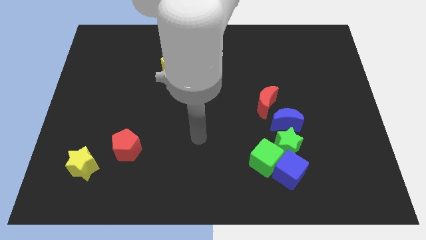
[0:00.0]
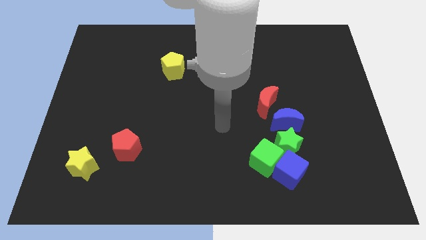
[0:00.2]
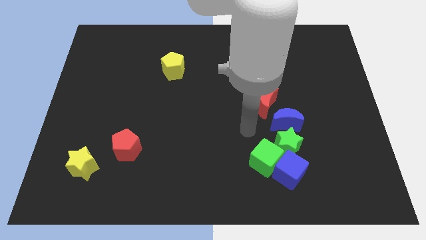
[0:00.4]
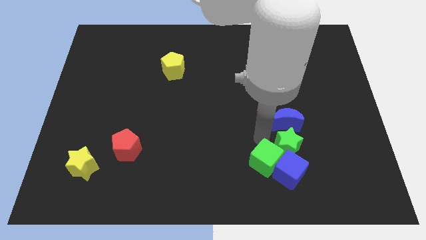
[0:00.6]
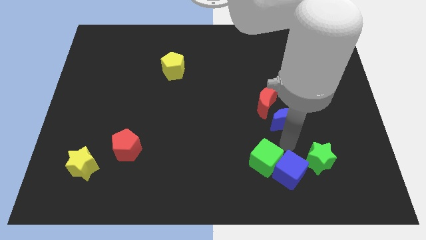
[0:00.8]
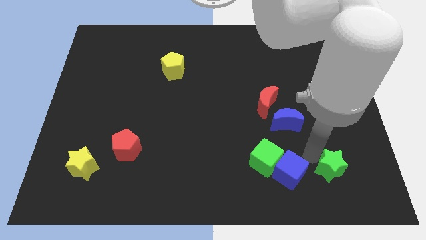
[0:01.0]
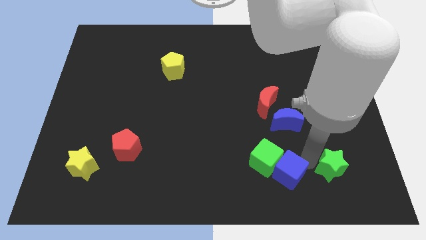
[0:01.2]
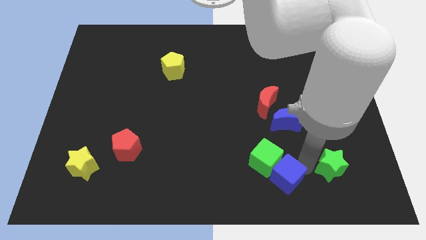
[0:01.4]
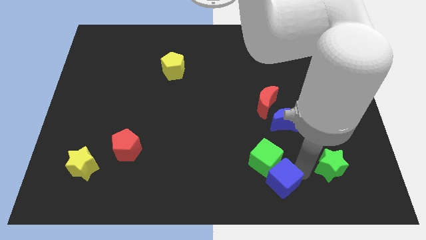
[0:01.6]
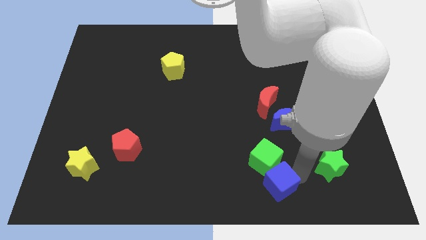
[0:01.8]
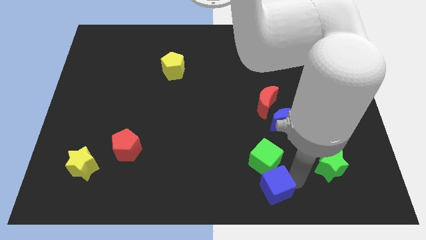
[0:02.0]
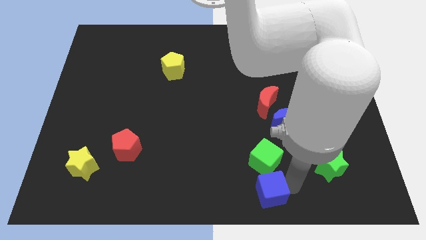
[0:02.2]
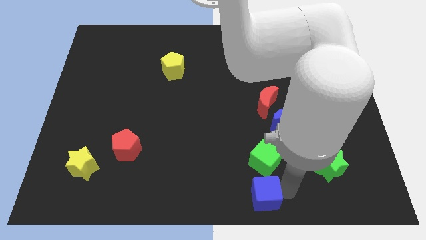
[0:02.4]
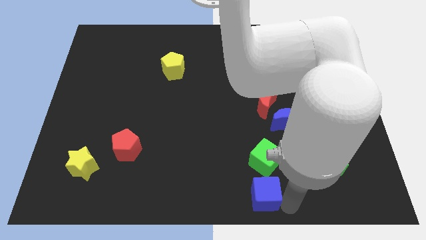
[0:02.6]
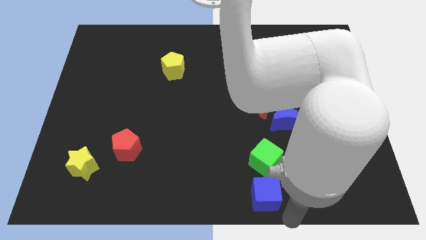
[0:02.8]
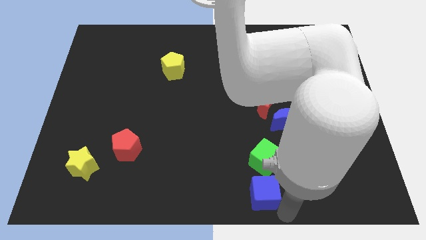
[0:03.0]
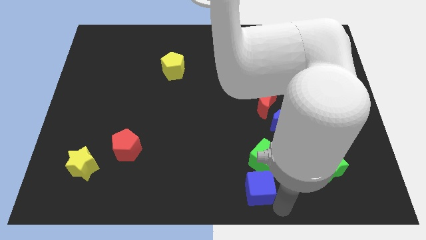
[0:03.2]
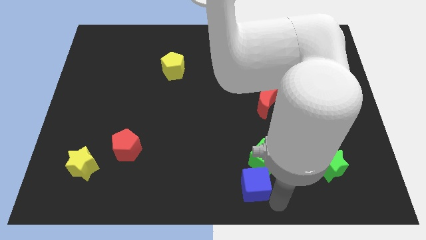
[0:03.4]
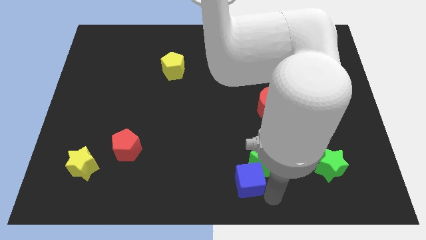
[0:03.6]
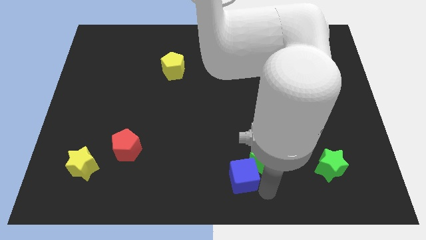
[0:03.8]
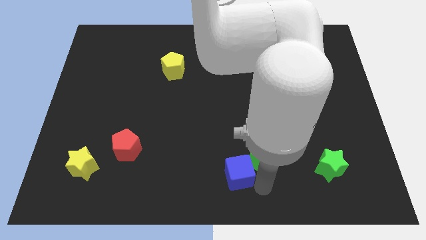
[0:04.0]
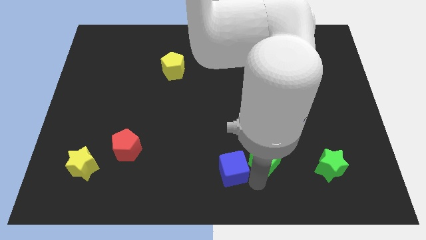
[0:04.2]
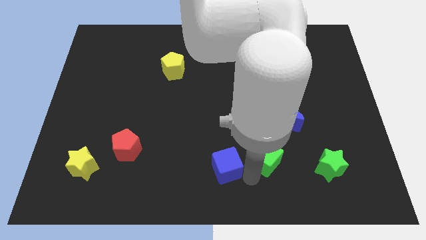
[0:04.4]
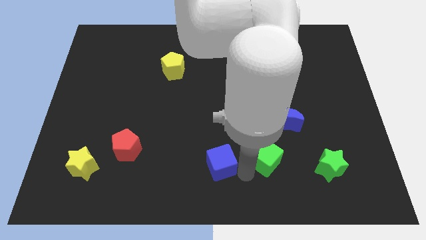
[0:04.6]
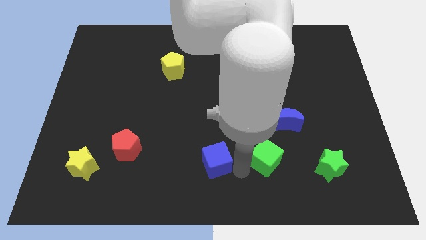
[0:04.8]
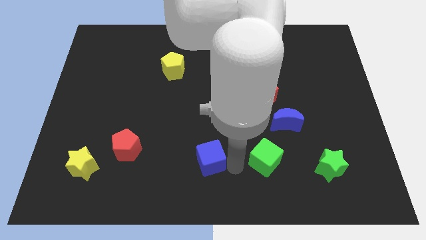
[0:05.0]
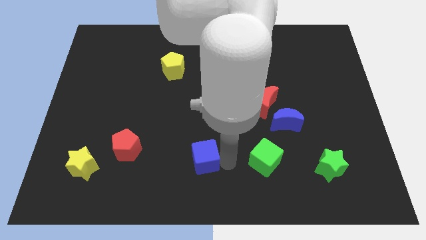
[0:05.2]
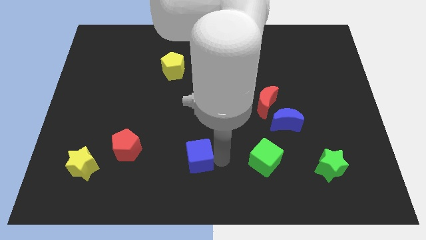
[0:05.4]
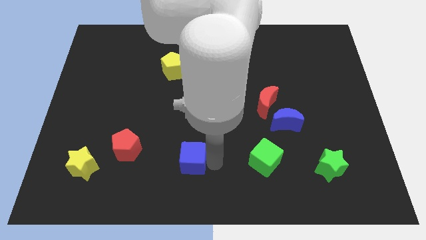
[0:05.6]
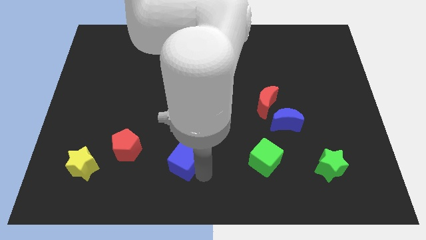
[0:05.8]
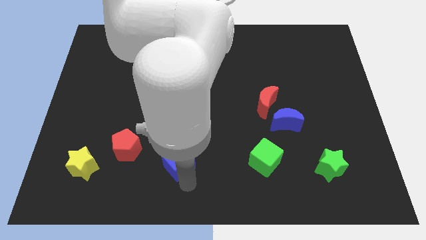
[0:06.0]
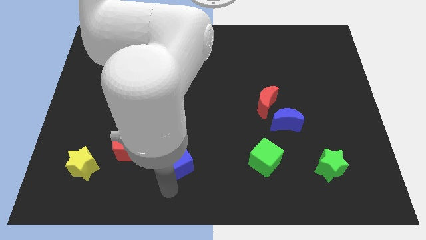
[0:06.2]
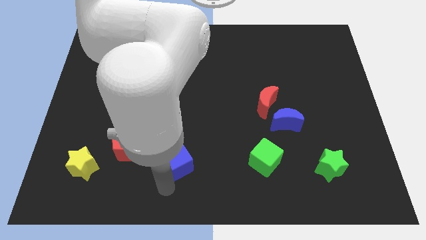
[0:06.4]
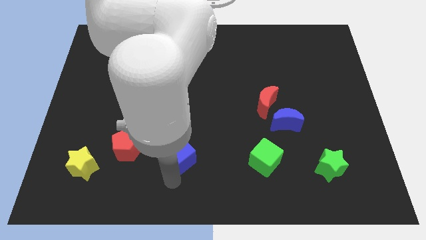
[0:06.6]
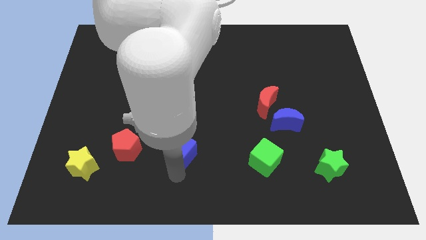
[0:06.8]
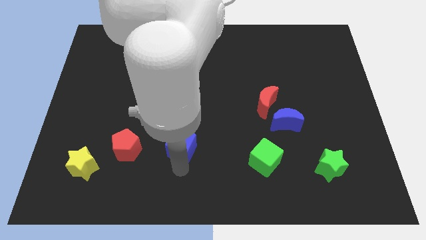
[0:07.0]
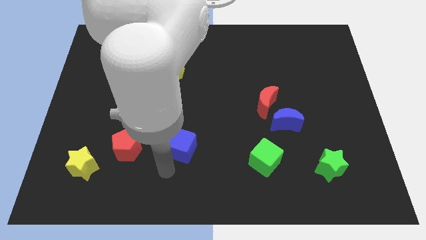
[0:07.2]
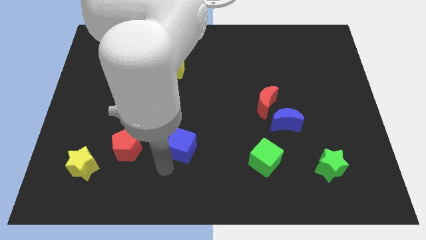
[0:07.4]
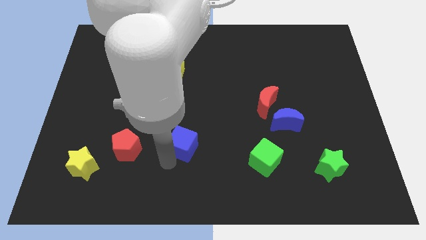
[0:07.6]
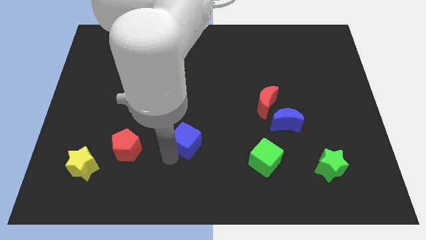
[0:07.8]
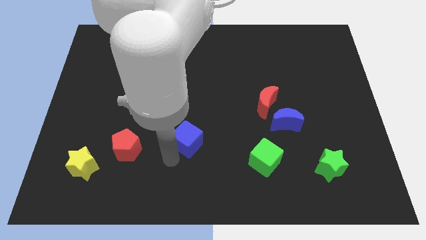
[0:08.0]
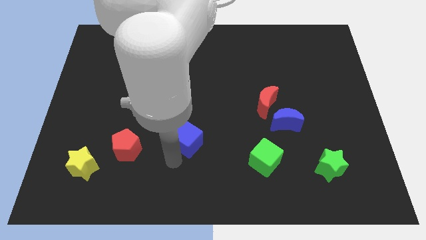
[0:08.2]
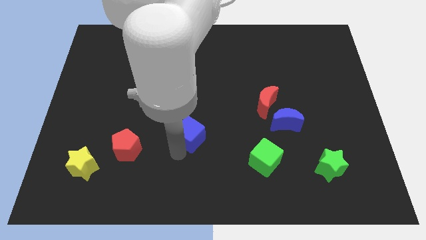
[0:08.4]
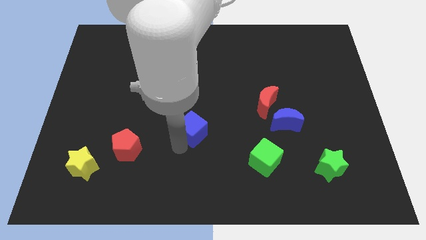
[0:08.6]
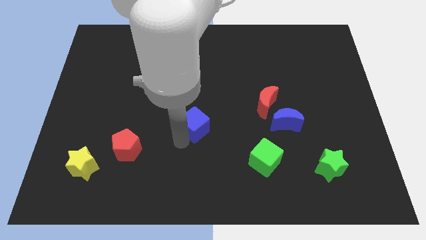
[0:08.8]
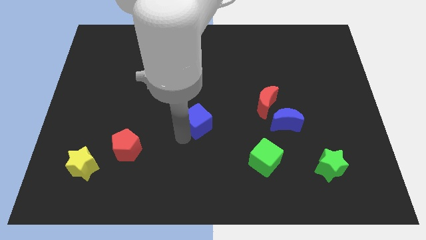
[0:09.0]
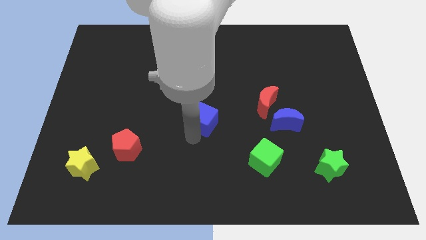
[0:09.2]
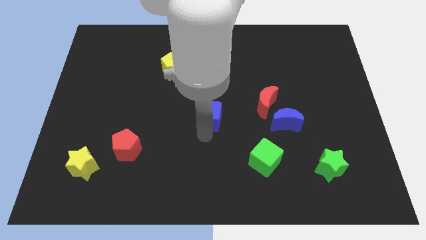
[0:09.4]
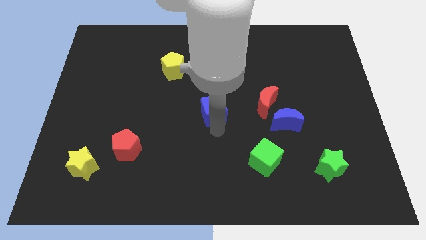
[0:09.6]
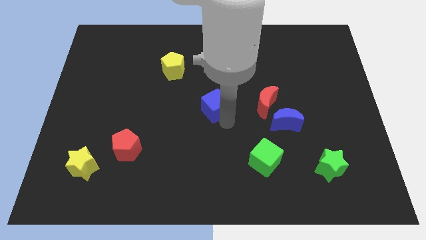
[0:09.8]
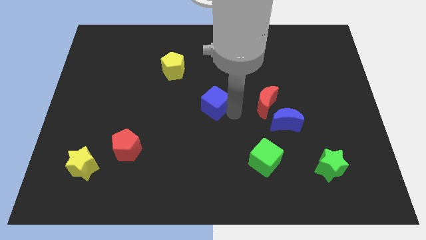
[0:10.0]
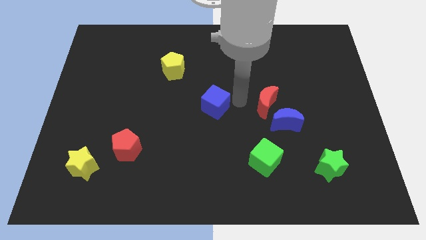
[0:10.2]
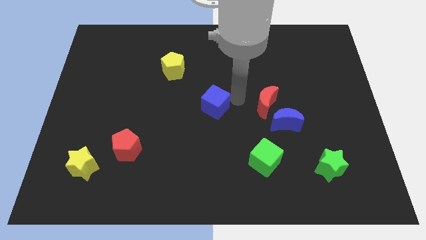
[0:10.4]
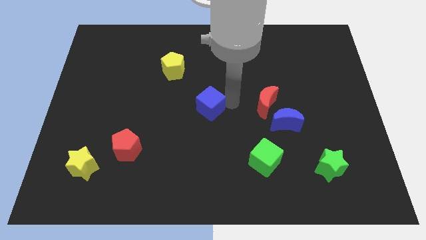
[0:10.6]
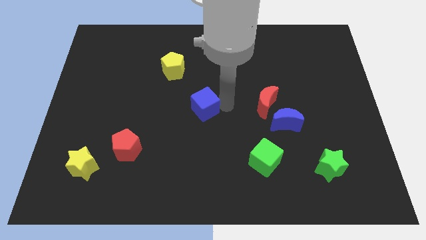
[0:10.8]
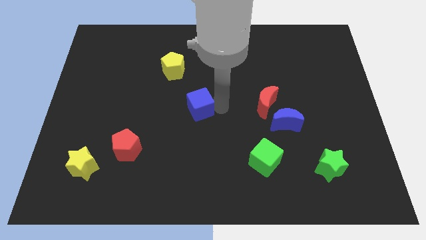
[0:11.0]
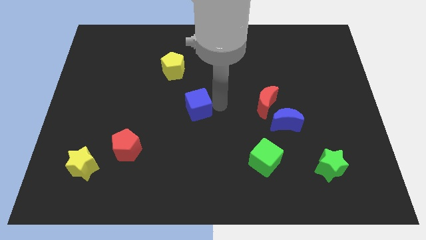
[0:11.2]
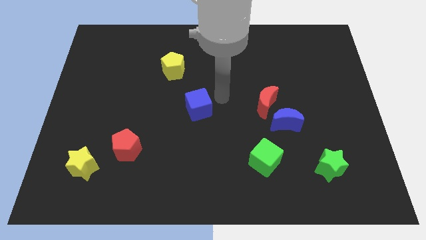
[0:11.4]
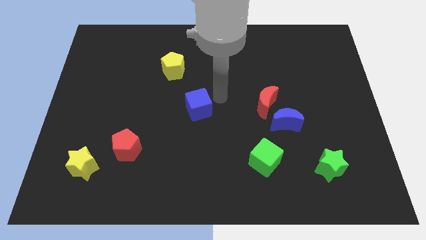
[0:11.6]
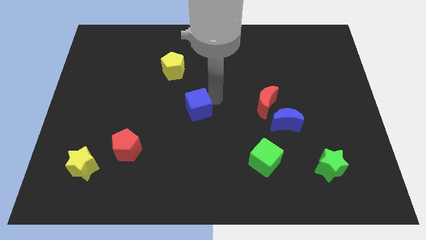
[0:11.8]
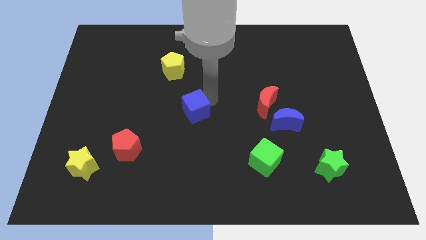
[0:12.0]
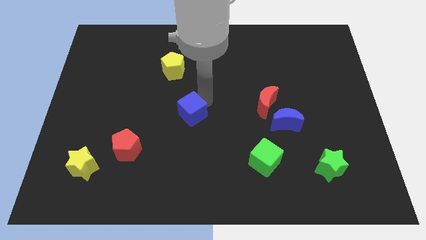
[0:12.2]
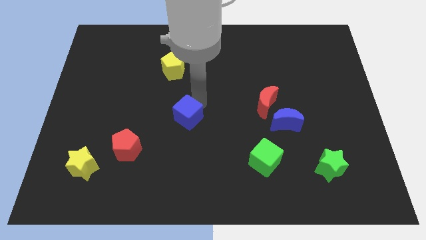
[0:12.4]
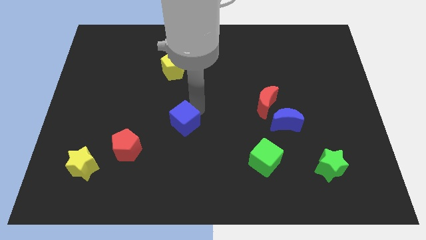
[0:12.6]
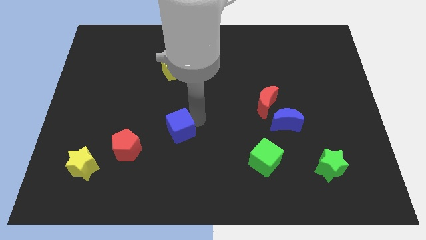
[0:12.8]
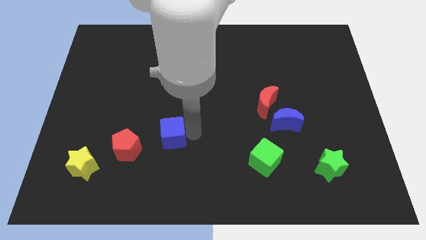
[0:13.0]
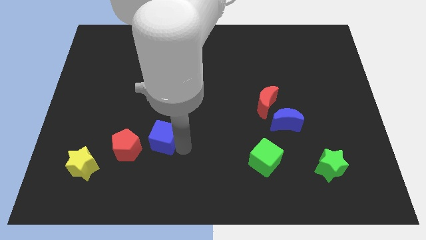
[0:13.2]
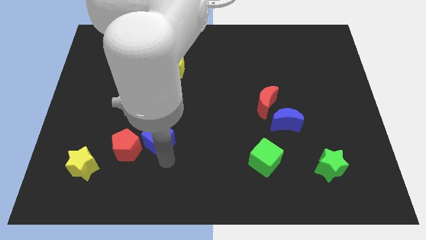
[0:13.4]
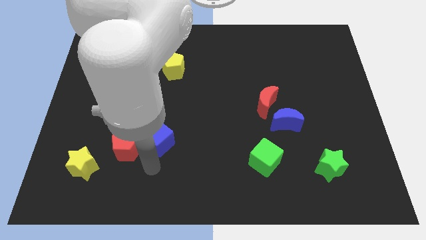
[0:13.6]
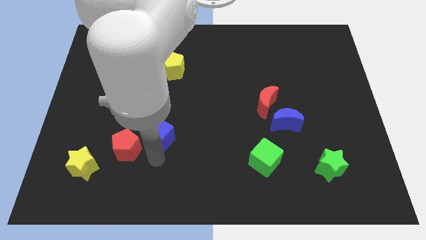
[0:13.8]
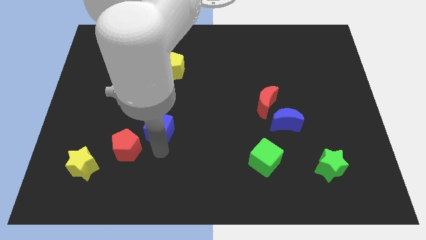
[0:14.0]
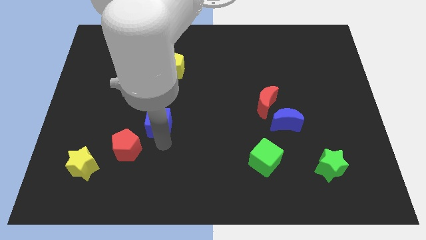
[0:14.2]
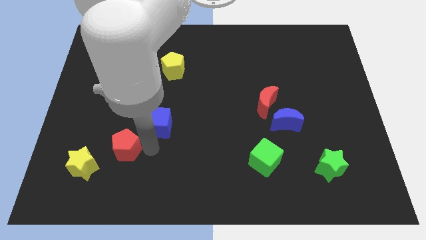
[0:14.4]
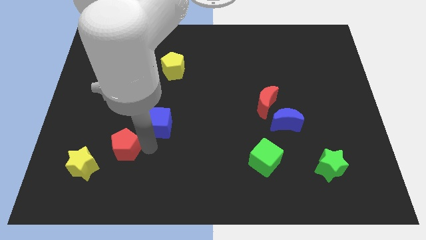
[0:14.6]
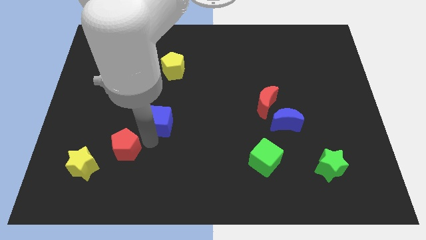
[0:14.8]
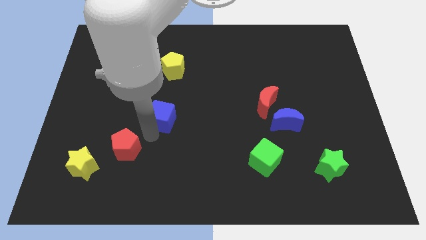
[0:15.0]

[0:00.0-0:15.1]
put the blue cube to the bottom of the yellow pentagon
